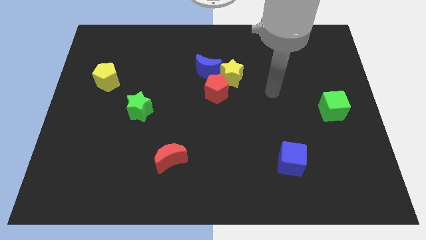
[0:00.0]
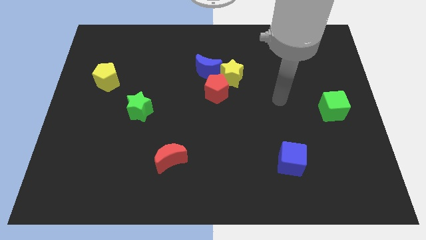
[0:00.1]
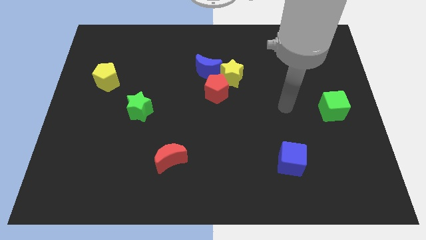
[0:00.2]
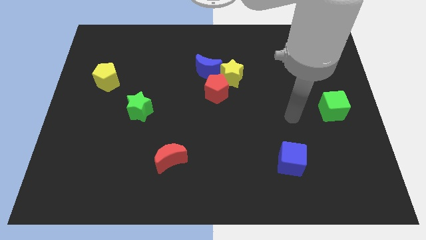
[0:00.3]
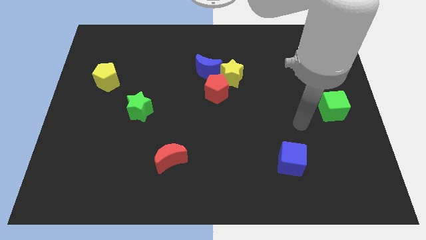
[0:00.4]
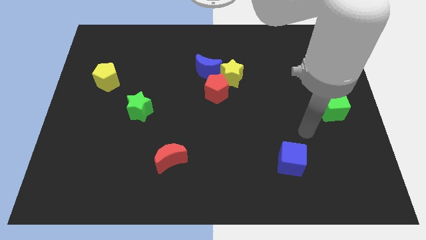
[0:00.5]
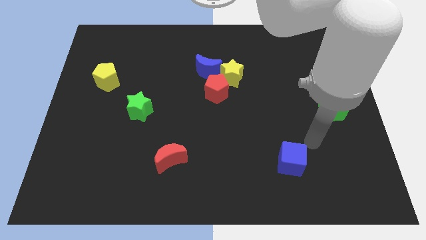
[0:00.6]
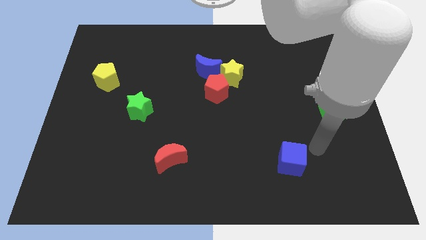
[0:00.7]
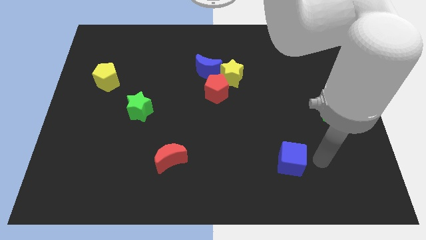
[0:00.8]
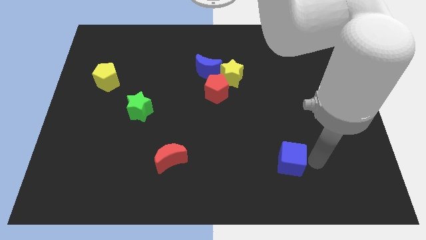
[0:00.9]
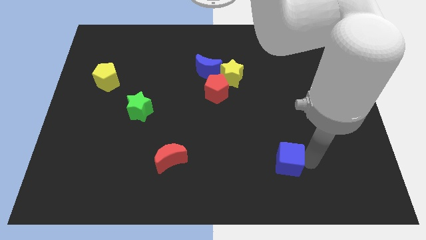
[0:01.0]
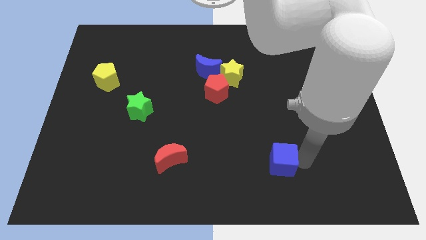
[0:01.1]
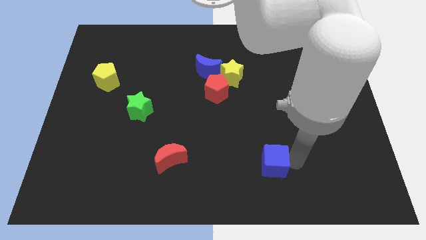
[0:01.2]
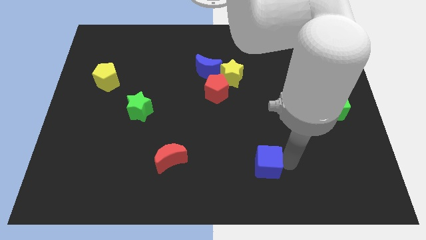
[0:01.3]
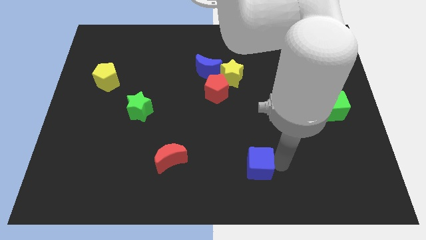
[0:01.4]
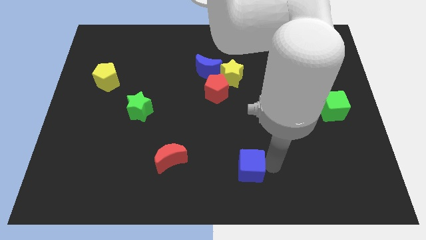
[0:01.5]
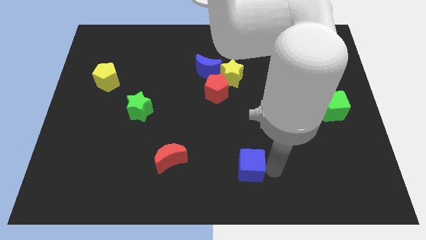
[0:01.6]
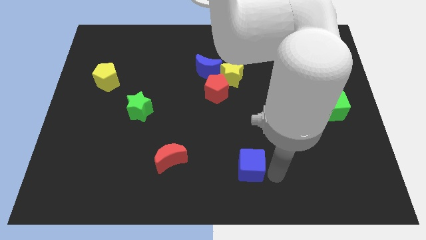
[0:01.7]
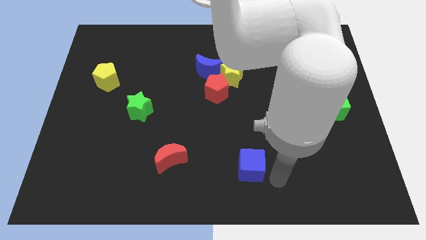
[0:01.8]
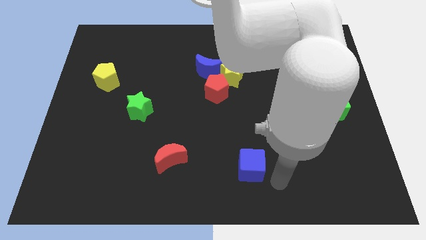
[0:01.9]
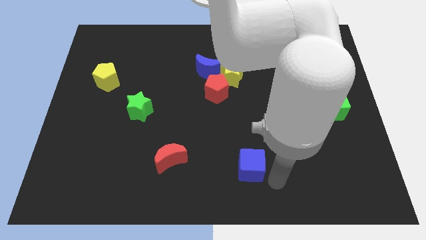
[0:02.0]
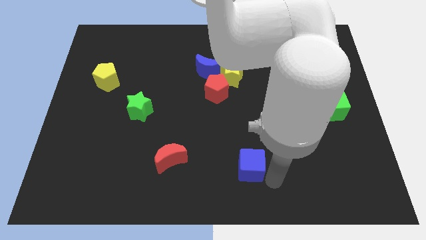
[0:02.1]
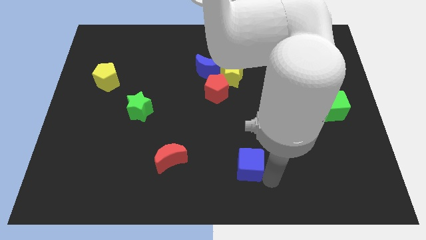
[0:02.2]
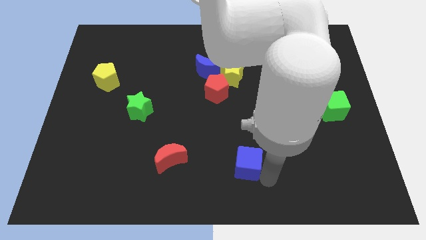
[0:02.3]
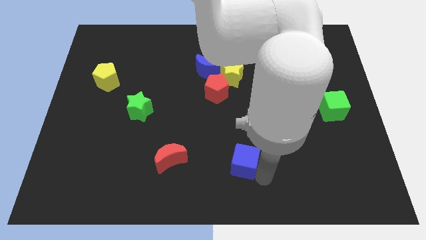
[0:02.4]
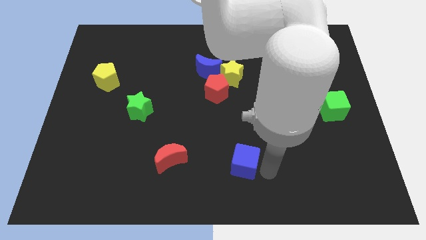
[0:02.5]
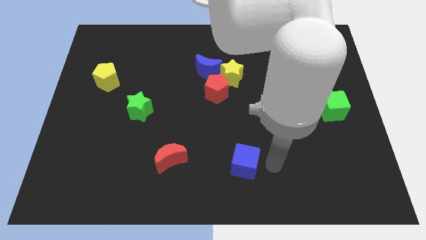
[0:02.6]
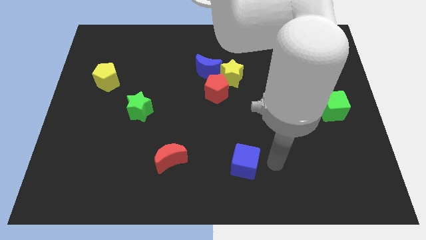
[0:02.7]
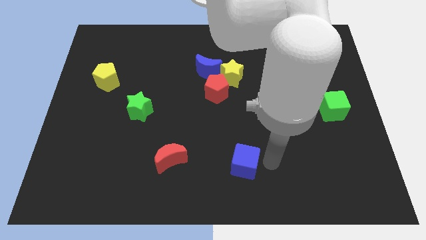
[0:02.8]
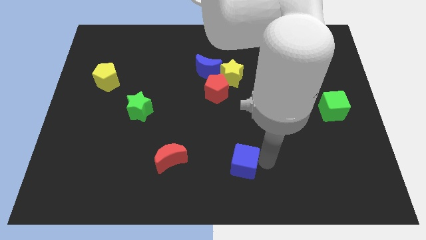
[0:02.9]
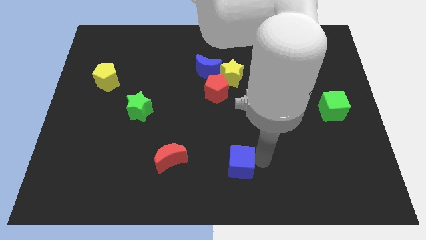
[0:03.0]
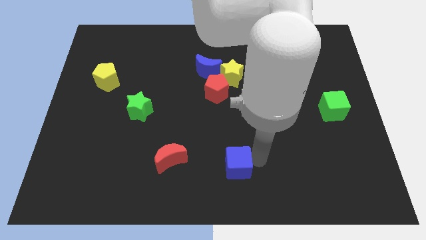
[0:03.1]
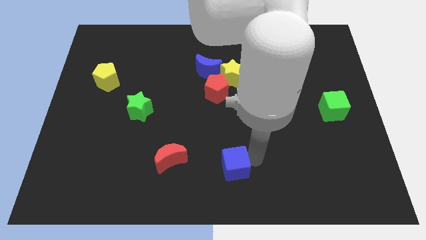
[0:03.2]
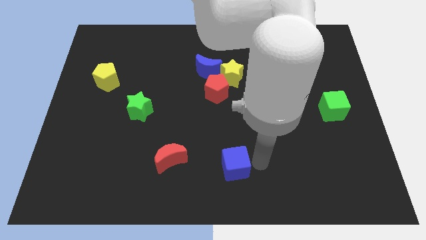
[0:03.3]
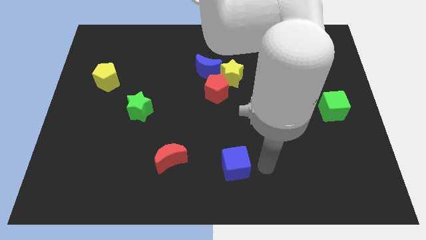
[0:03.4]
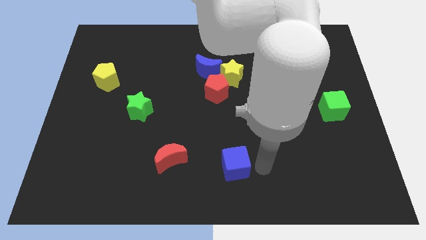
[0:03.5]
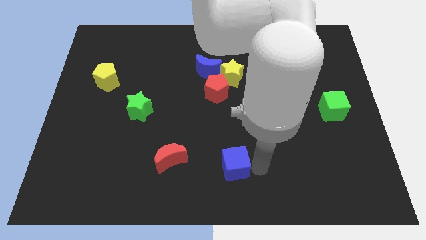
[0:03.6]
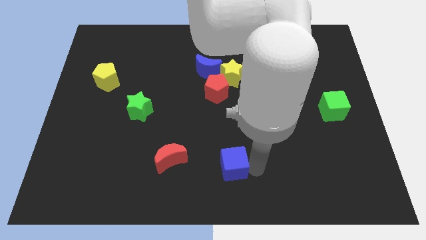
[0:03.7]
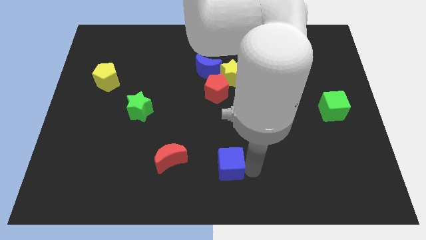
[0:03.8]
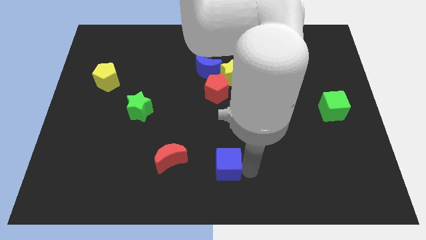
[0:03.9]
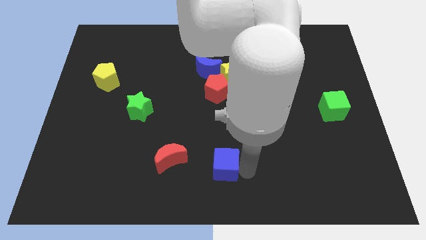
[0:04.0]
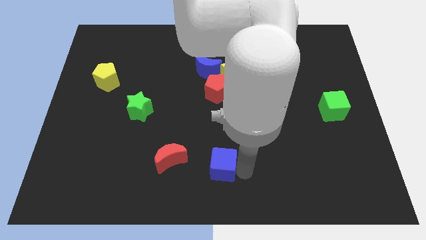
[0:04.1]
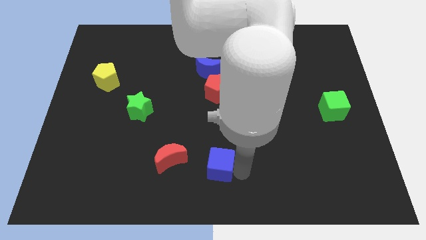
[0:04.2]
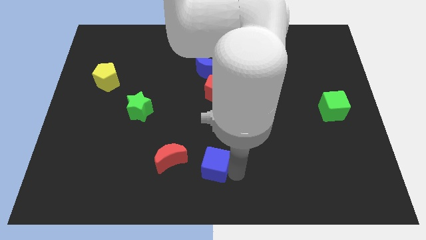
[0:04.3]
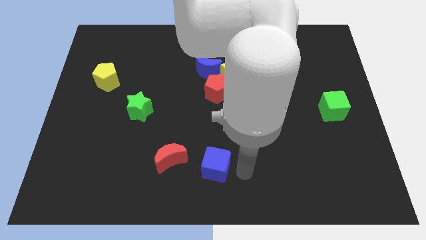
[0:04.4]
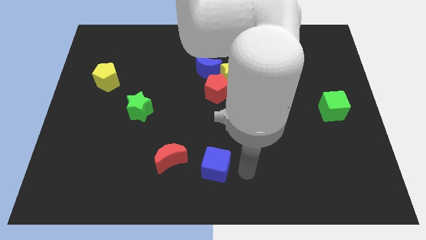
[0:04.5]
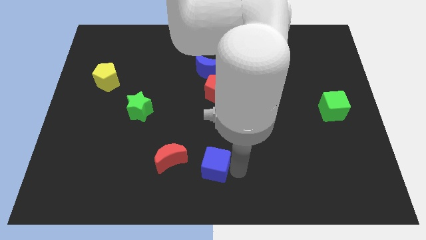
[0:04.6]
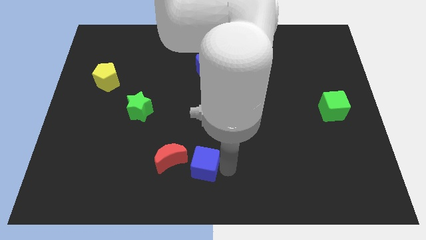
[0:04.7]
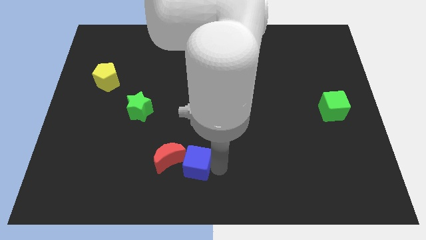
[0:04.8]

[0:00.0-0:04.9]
move the blue cube close to the red moon

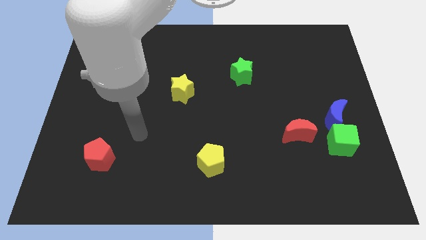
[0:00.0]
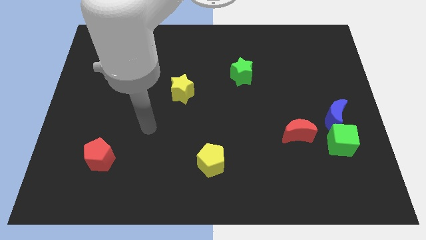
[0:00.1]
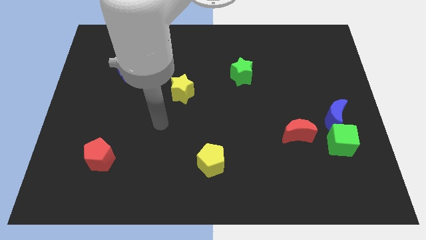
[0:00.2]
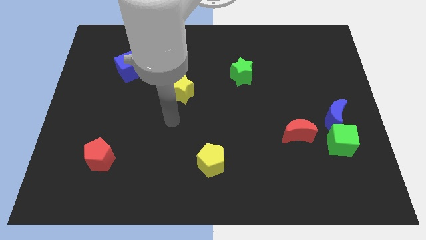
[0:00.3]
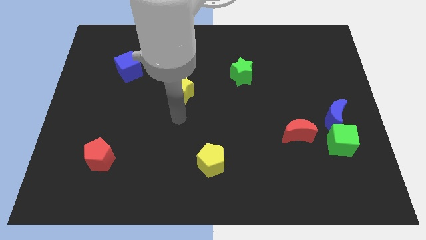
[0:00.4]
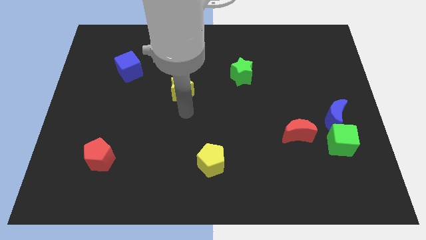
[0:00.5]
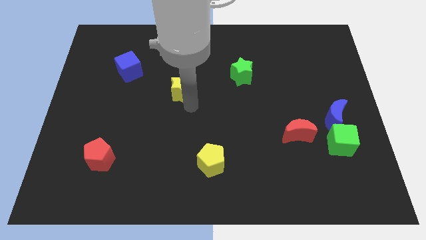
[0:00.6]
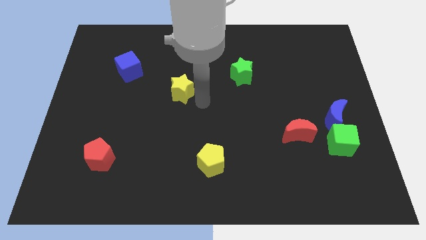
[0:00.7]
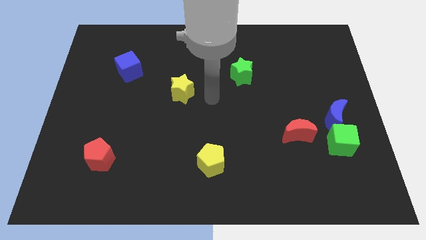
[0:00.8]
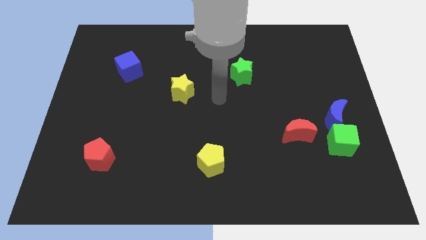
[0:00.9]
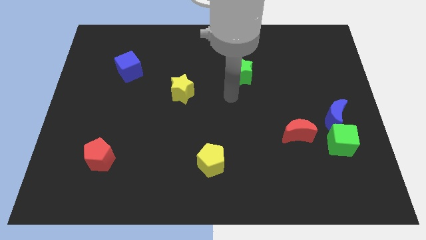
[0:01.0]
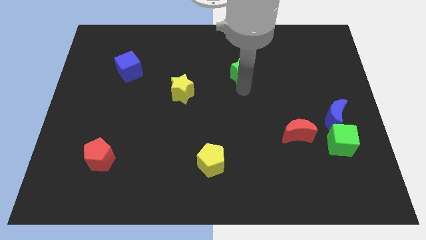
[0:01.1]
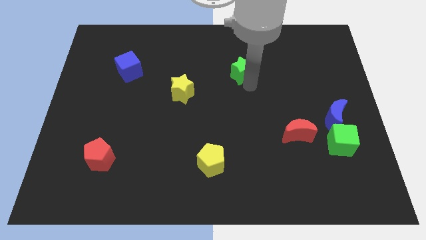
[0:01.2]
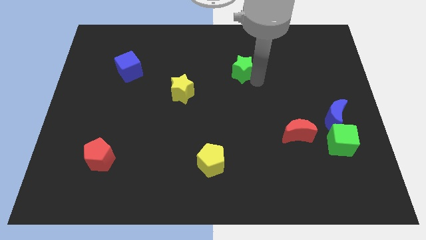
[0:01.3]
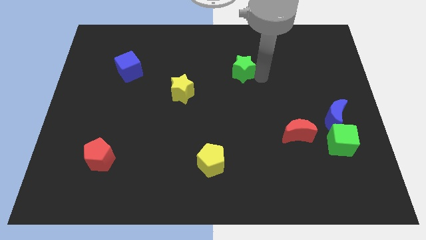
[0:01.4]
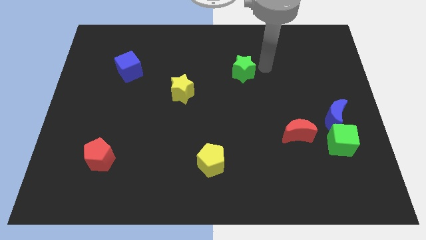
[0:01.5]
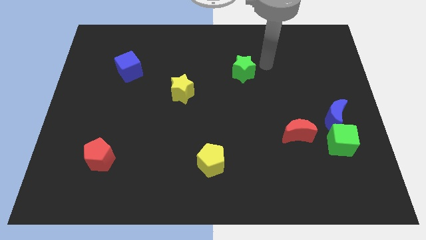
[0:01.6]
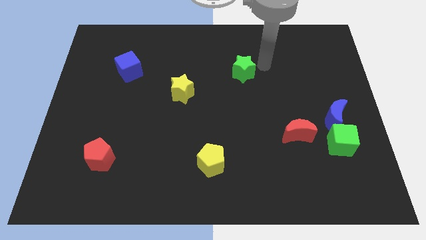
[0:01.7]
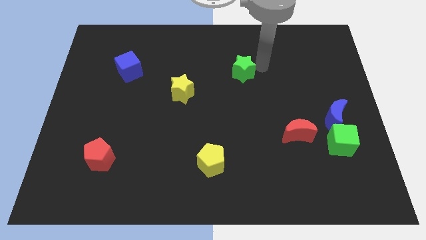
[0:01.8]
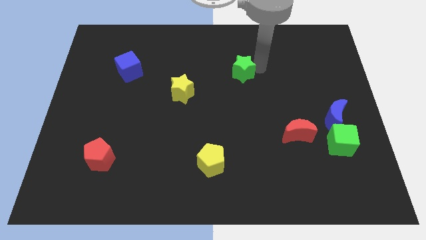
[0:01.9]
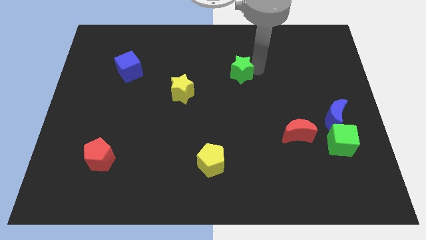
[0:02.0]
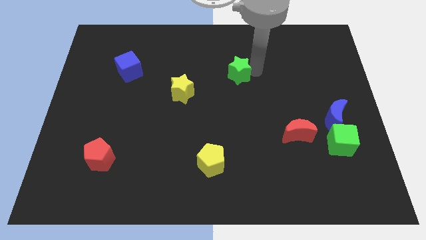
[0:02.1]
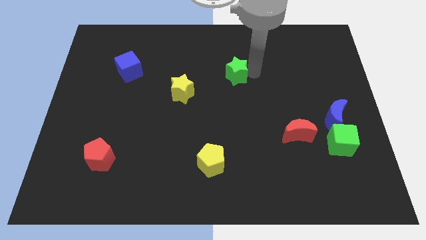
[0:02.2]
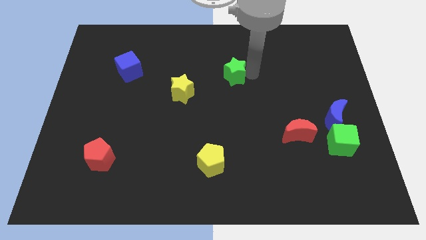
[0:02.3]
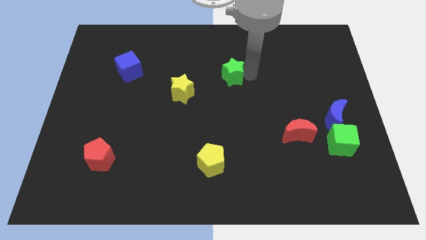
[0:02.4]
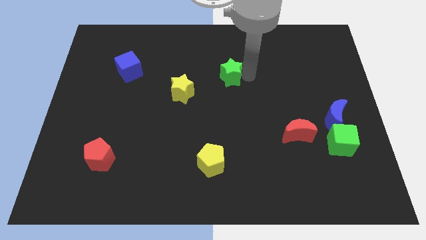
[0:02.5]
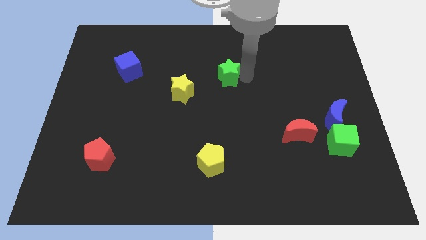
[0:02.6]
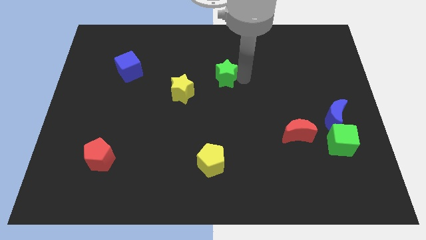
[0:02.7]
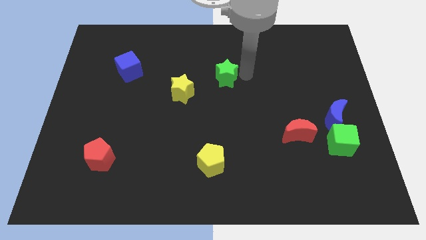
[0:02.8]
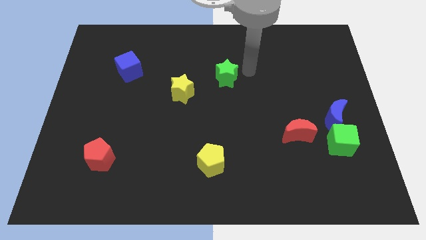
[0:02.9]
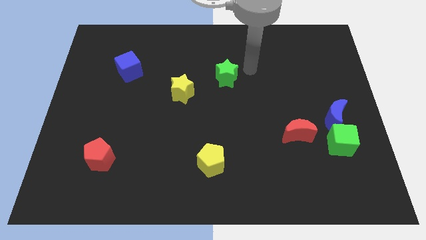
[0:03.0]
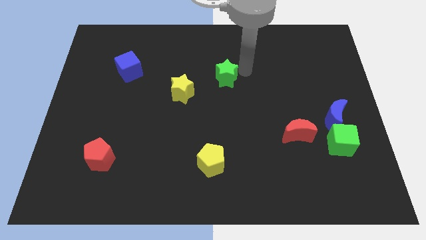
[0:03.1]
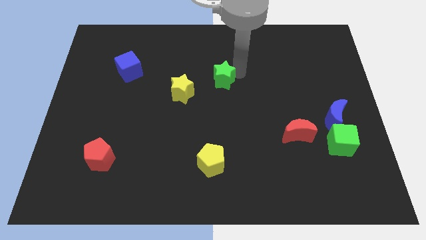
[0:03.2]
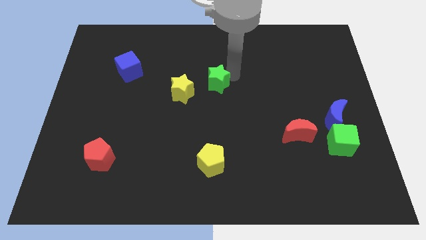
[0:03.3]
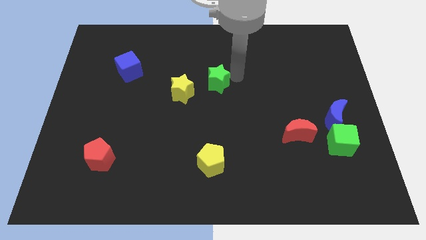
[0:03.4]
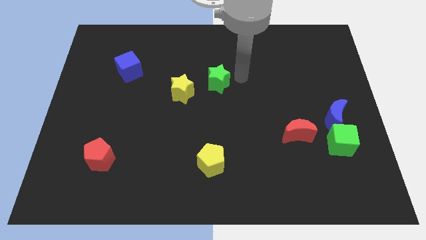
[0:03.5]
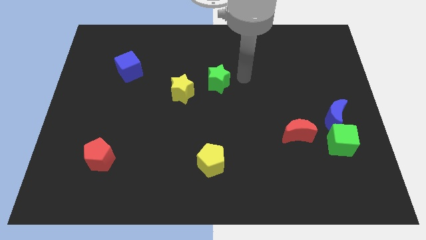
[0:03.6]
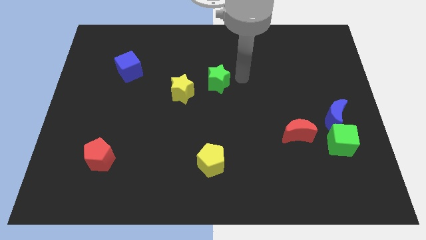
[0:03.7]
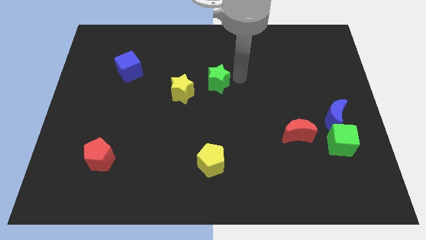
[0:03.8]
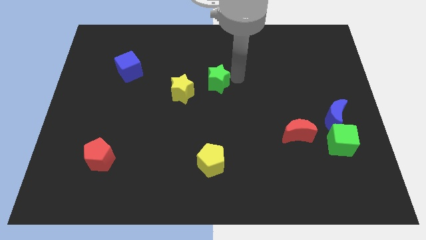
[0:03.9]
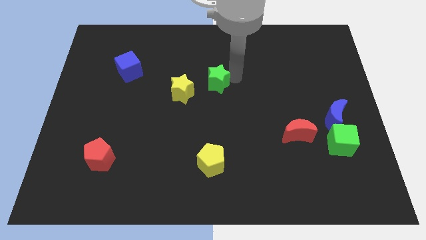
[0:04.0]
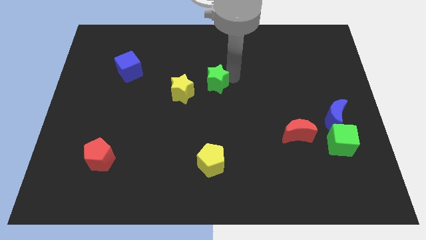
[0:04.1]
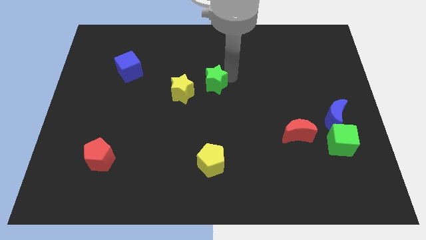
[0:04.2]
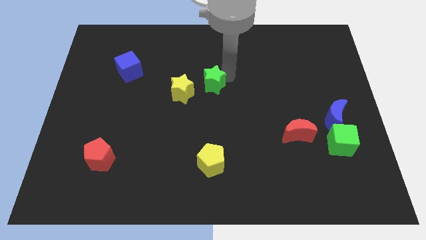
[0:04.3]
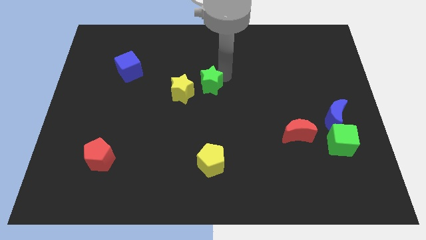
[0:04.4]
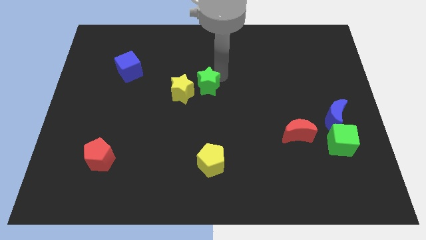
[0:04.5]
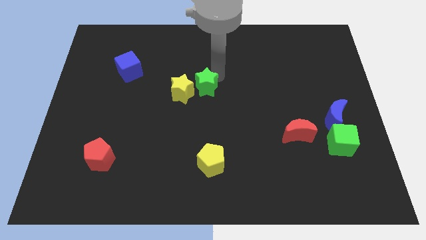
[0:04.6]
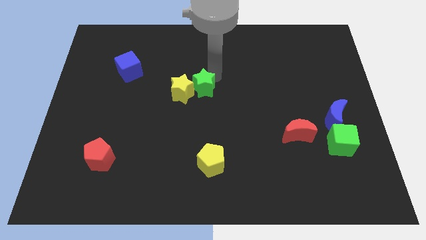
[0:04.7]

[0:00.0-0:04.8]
push the green star close to the yellow star
